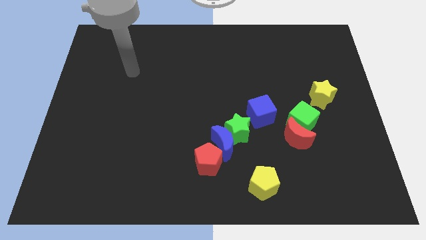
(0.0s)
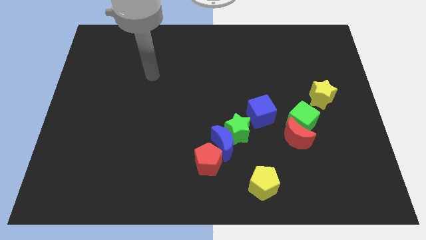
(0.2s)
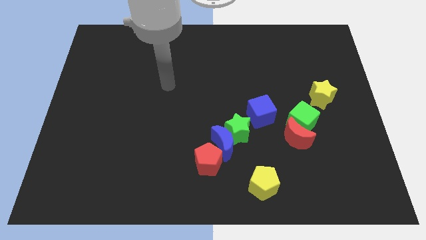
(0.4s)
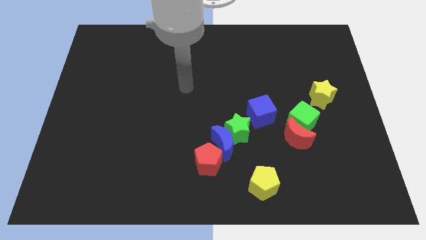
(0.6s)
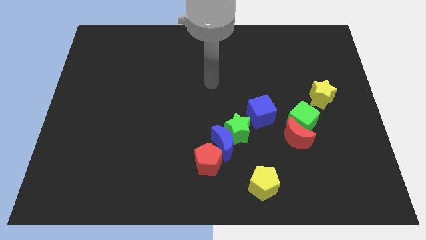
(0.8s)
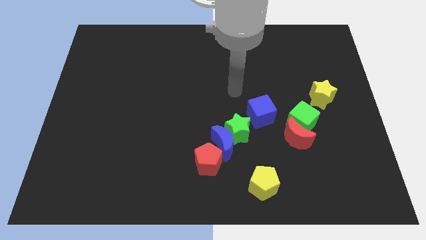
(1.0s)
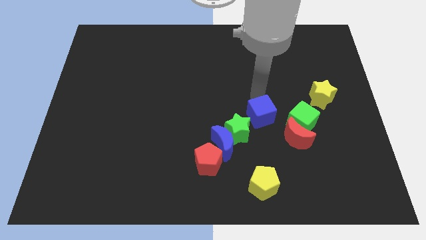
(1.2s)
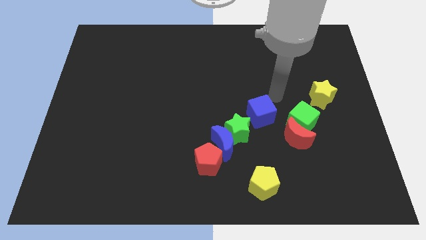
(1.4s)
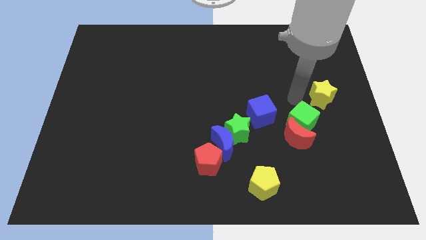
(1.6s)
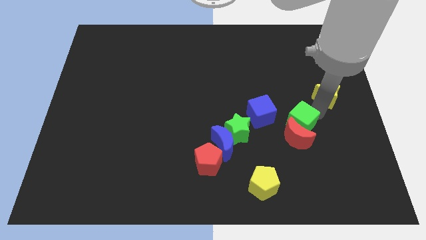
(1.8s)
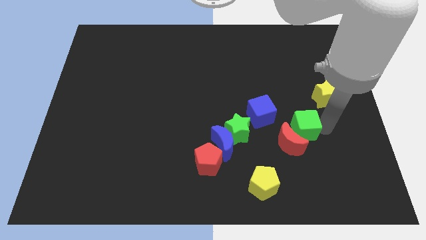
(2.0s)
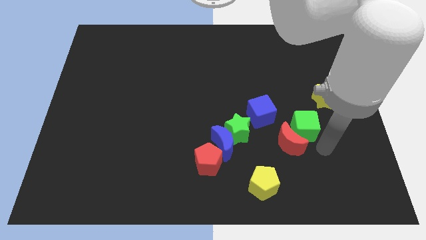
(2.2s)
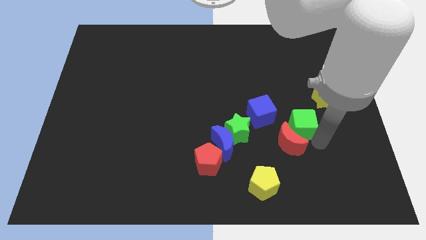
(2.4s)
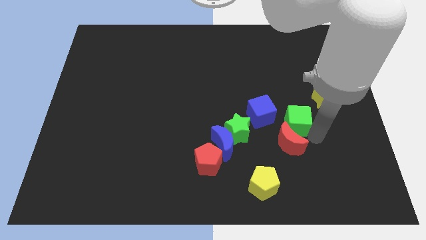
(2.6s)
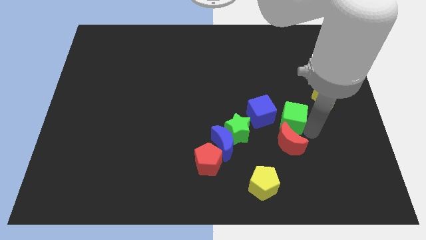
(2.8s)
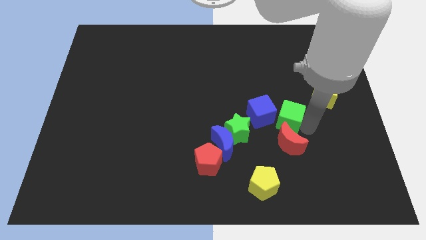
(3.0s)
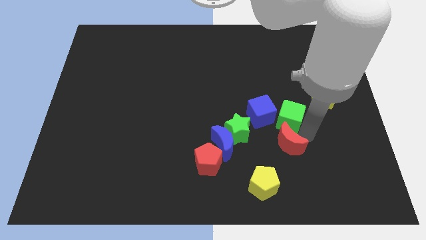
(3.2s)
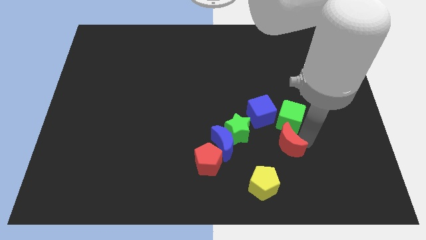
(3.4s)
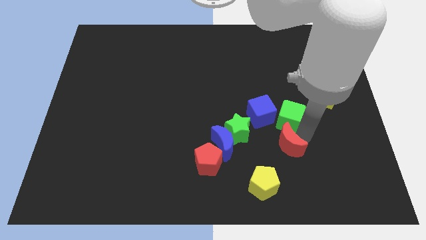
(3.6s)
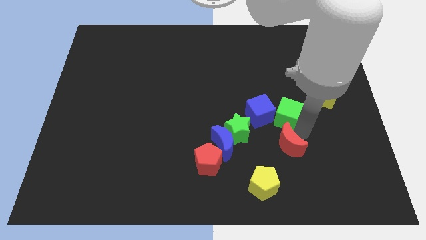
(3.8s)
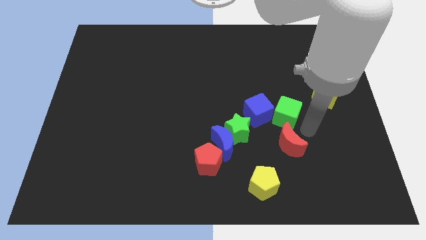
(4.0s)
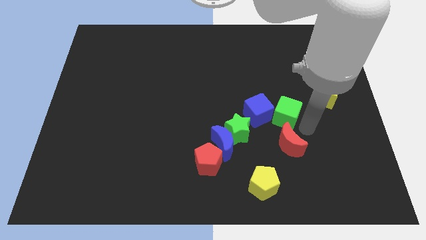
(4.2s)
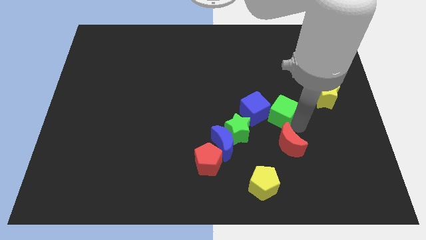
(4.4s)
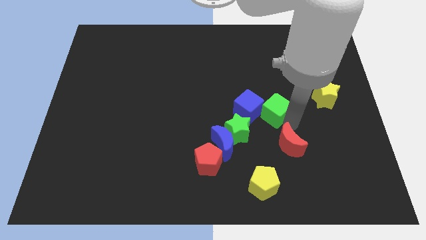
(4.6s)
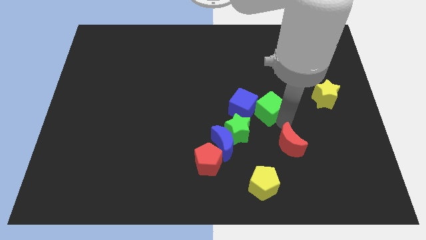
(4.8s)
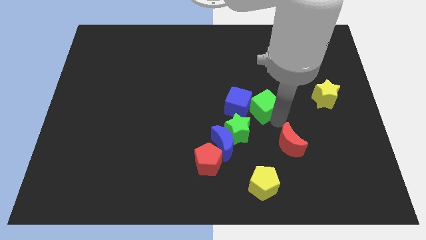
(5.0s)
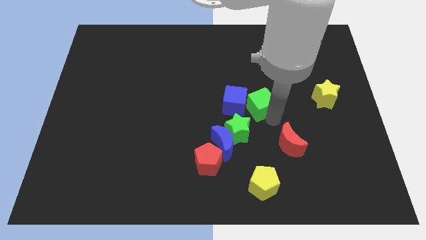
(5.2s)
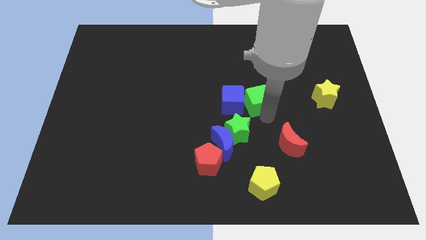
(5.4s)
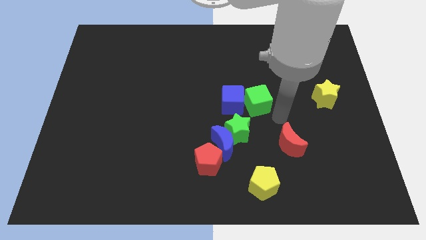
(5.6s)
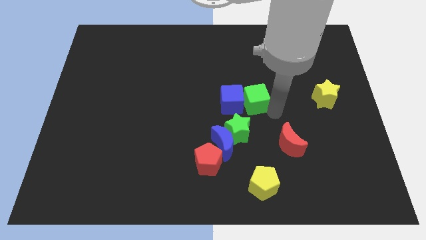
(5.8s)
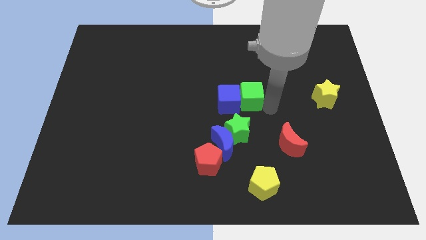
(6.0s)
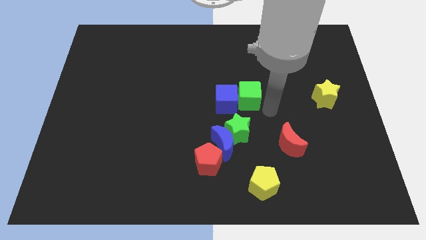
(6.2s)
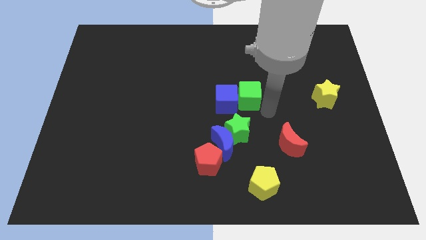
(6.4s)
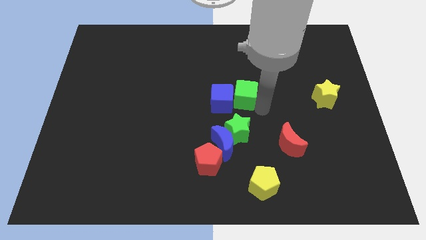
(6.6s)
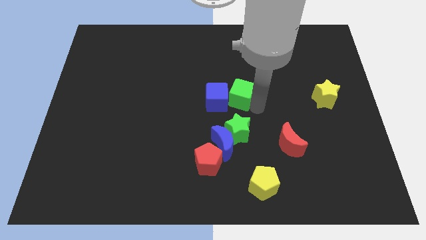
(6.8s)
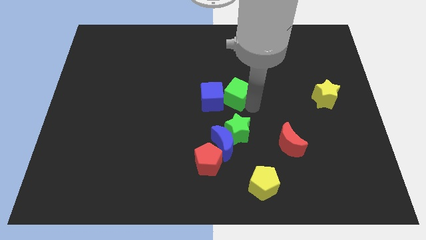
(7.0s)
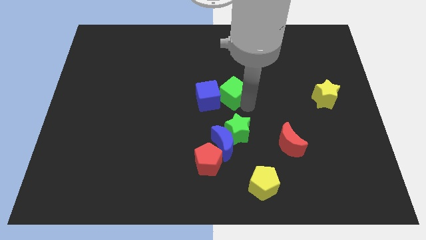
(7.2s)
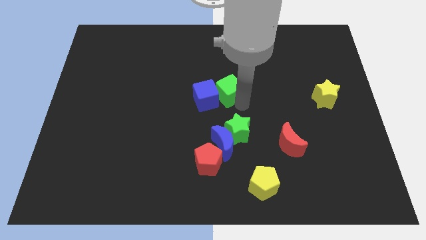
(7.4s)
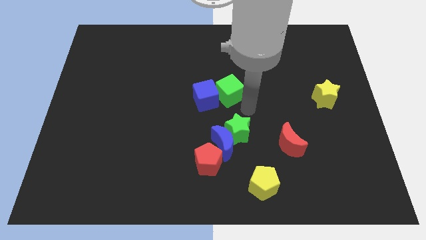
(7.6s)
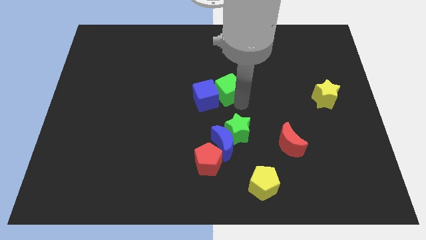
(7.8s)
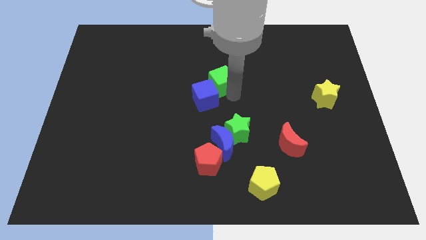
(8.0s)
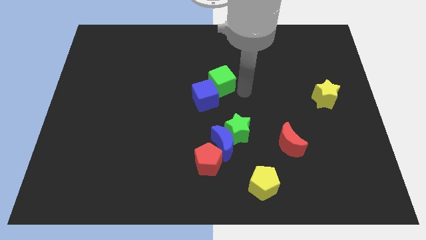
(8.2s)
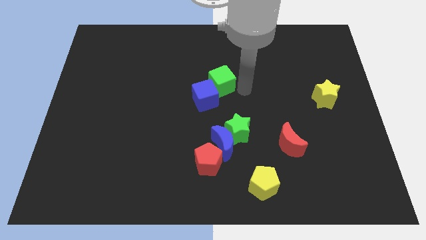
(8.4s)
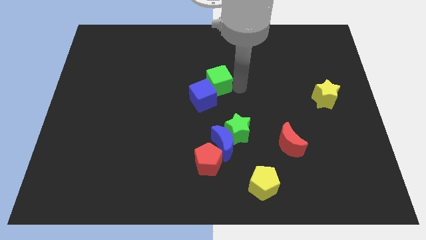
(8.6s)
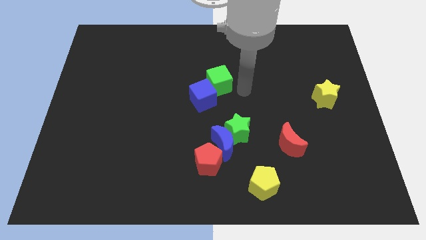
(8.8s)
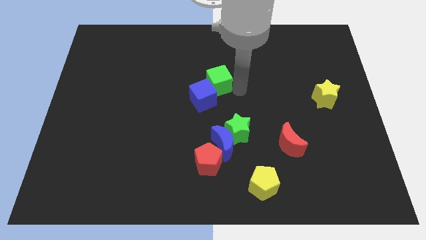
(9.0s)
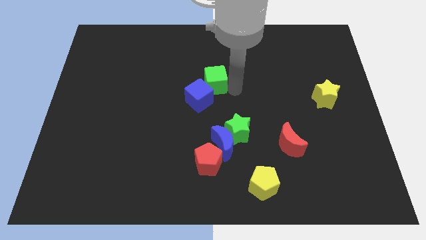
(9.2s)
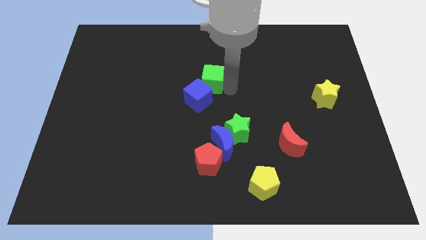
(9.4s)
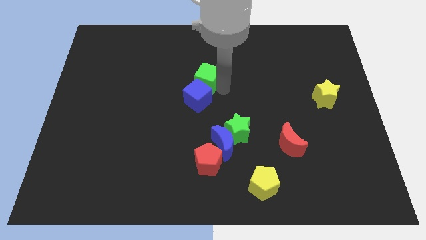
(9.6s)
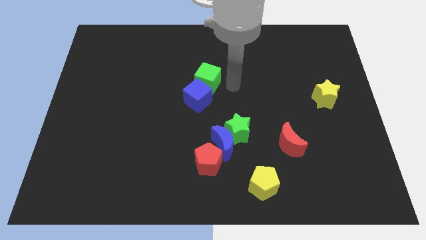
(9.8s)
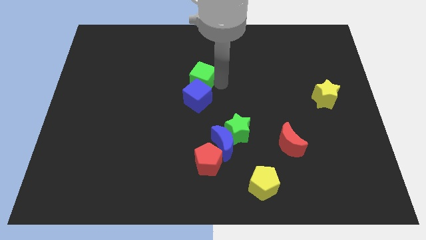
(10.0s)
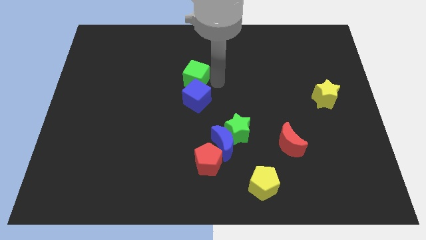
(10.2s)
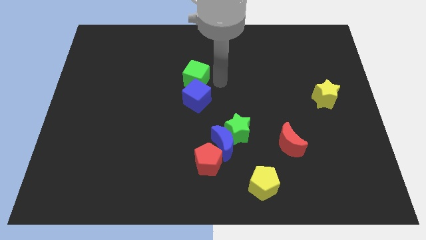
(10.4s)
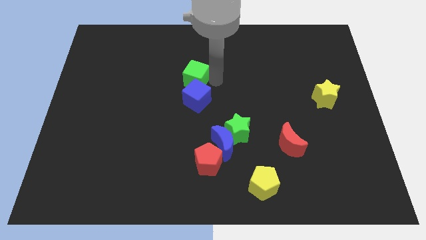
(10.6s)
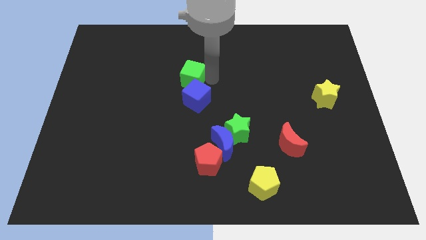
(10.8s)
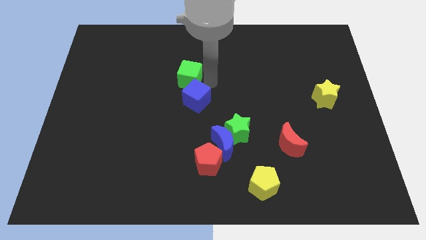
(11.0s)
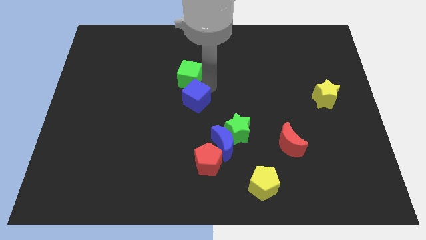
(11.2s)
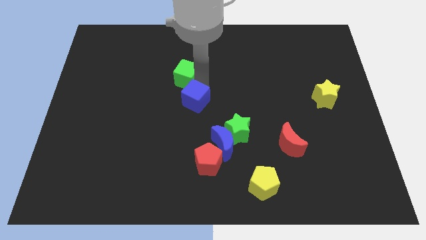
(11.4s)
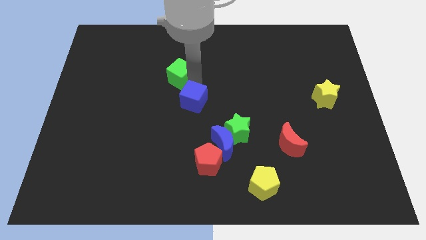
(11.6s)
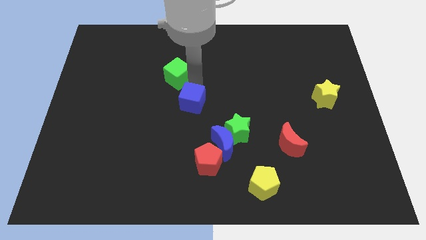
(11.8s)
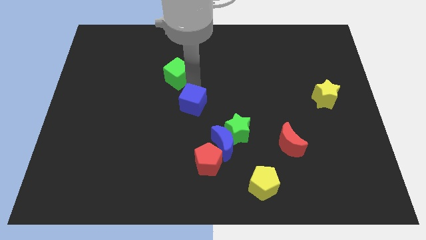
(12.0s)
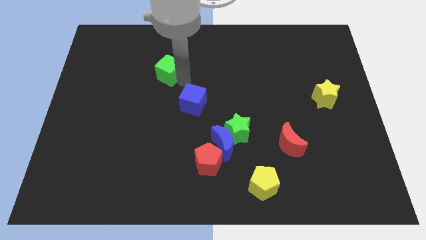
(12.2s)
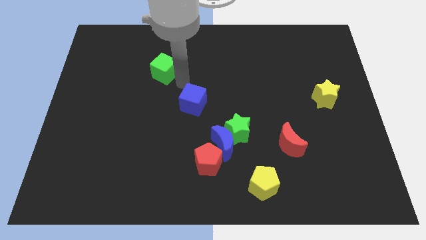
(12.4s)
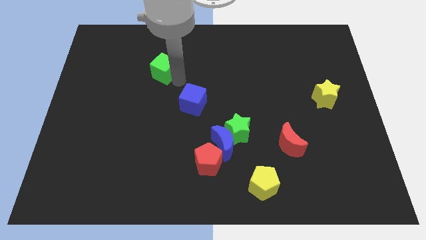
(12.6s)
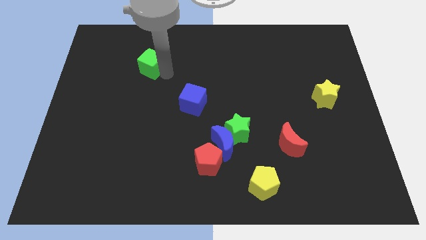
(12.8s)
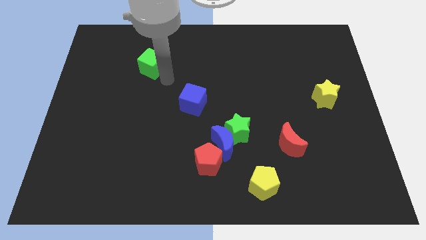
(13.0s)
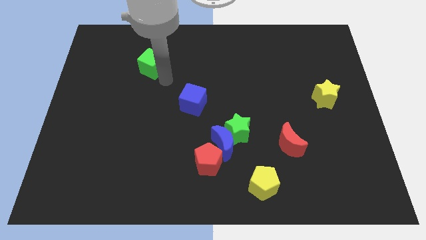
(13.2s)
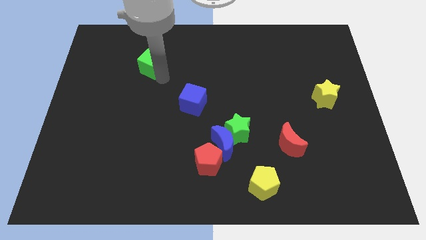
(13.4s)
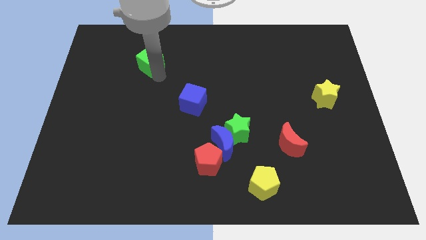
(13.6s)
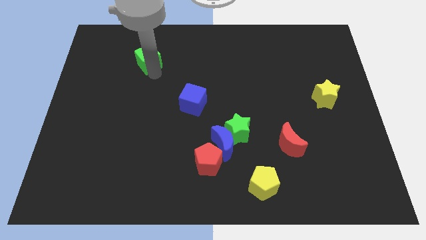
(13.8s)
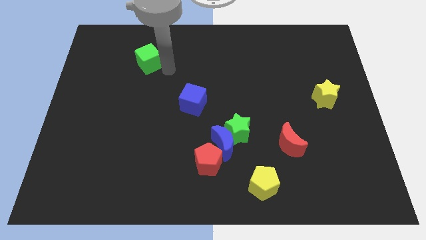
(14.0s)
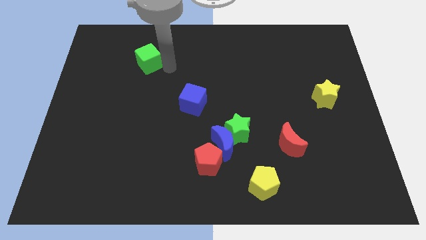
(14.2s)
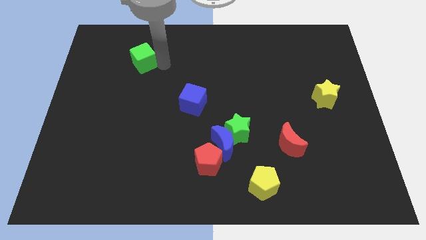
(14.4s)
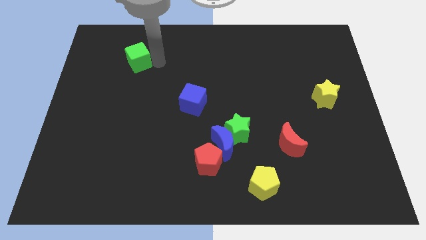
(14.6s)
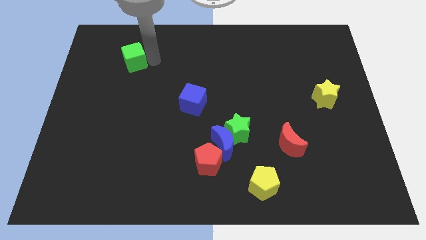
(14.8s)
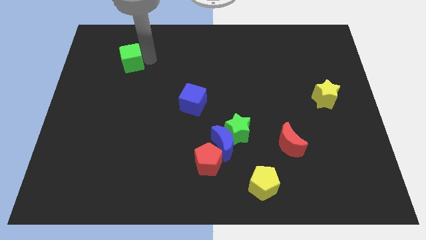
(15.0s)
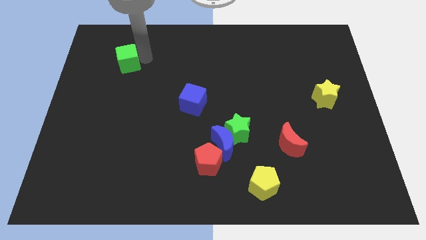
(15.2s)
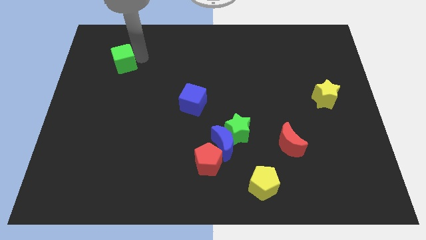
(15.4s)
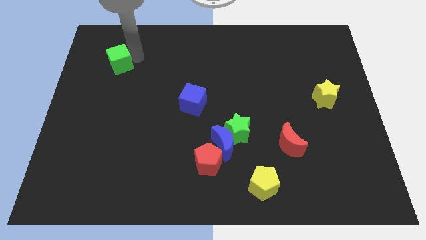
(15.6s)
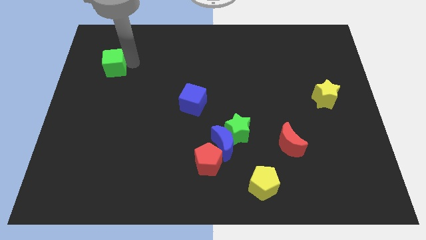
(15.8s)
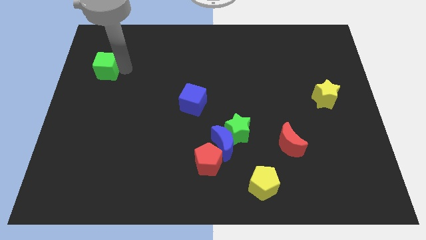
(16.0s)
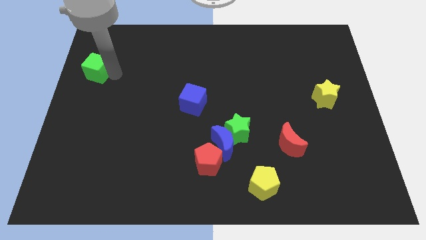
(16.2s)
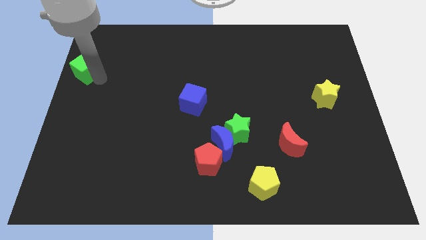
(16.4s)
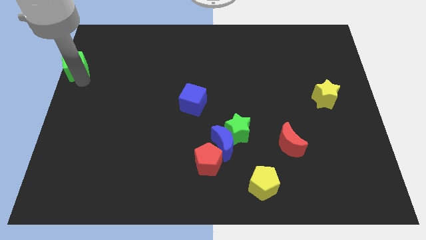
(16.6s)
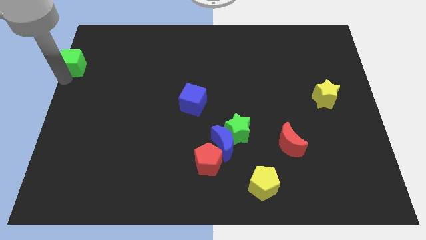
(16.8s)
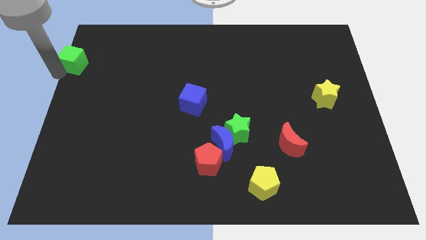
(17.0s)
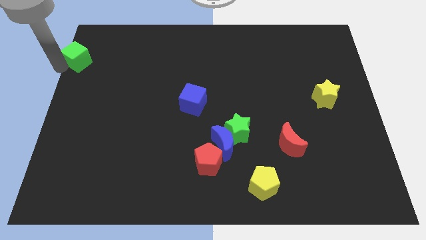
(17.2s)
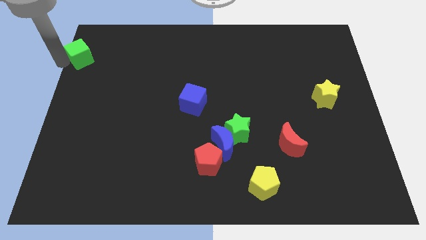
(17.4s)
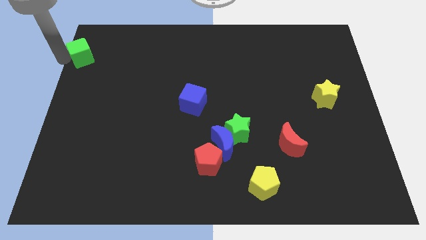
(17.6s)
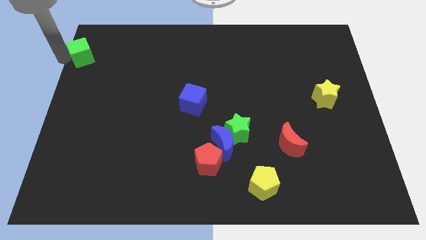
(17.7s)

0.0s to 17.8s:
slide the green cube to the top left
